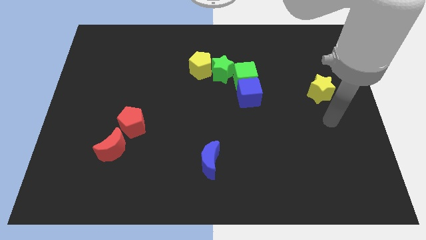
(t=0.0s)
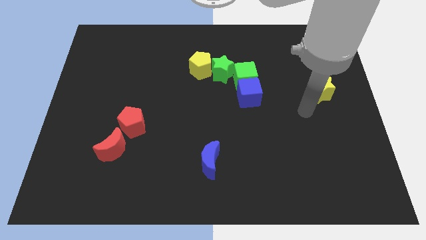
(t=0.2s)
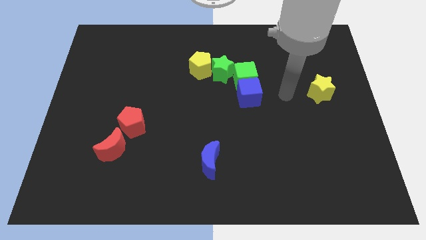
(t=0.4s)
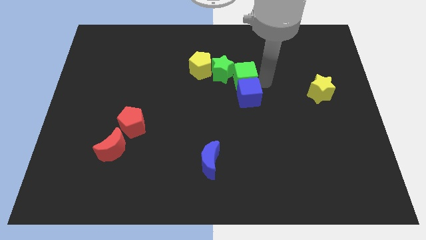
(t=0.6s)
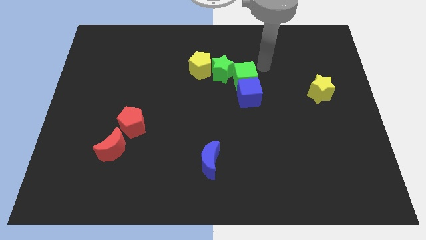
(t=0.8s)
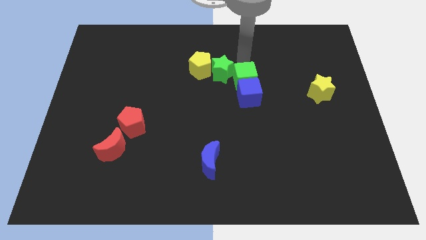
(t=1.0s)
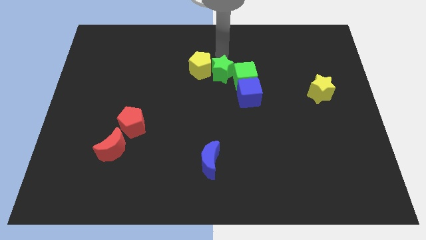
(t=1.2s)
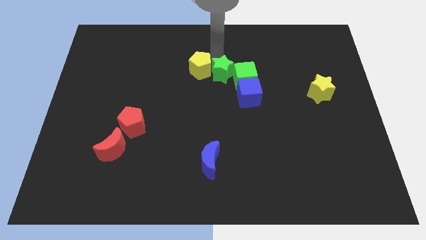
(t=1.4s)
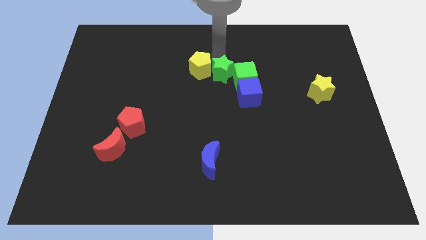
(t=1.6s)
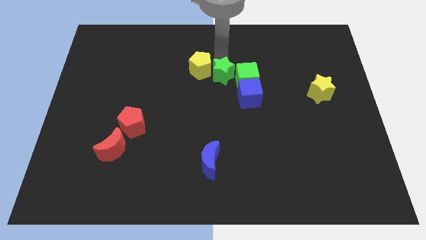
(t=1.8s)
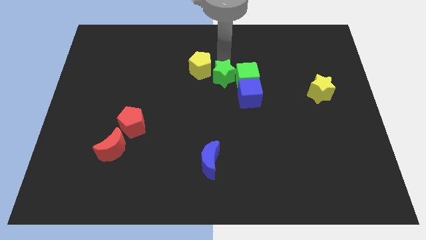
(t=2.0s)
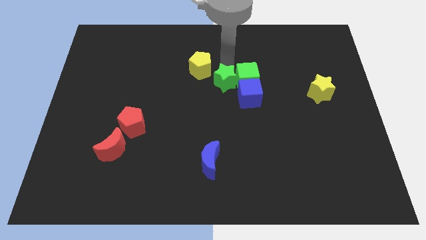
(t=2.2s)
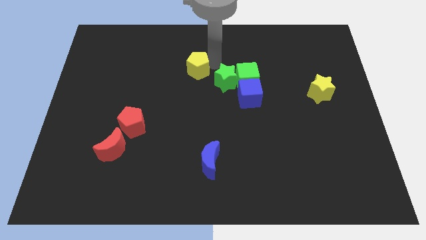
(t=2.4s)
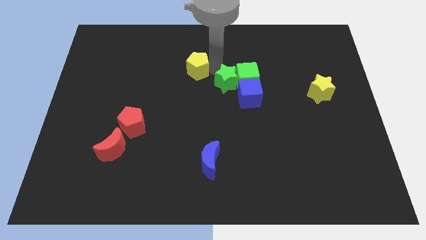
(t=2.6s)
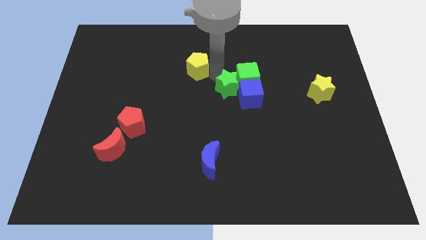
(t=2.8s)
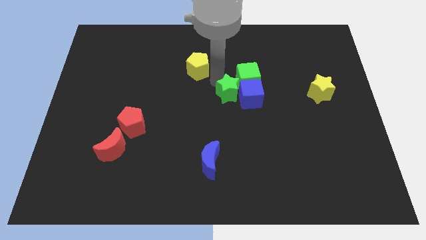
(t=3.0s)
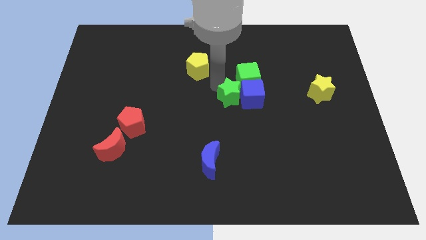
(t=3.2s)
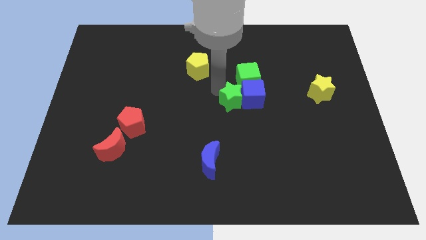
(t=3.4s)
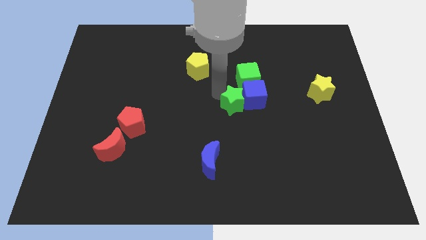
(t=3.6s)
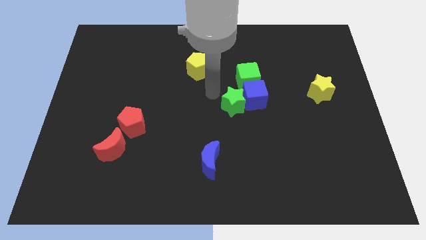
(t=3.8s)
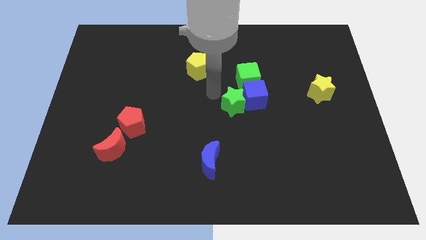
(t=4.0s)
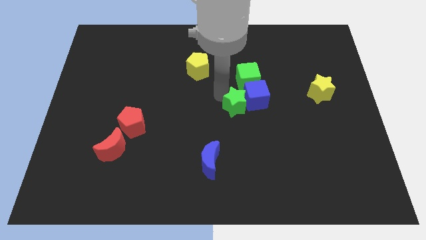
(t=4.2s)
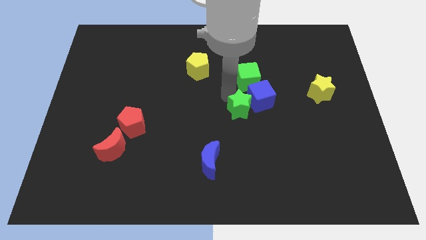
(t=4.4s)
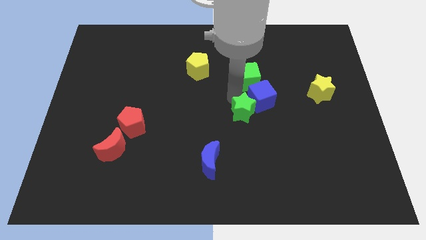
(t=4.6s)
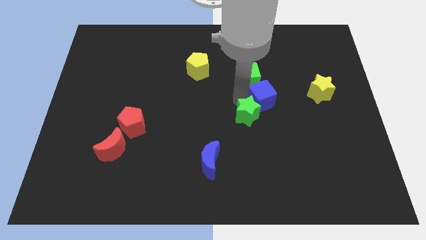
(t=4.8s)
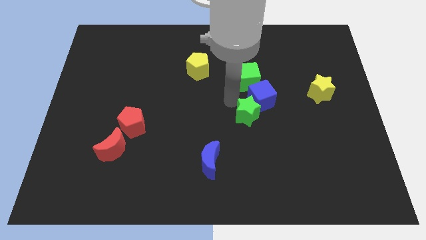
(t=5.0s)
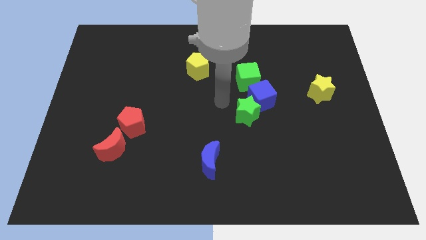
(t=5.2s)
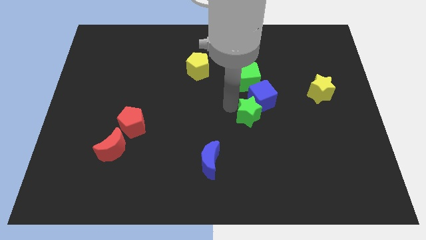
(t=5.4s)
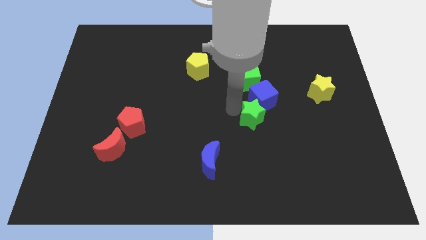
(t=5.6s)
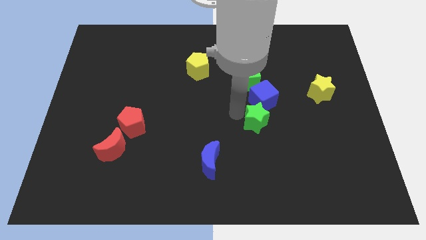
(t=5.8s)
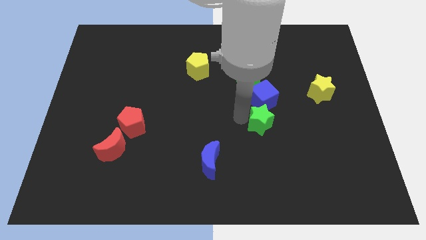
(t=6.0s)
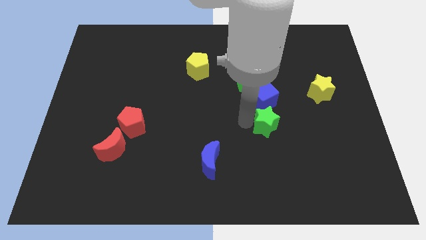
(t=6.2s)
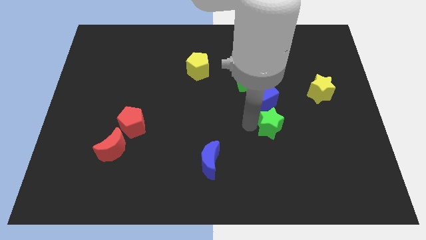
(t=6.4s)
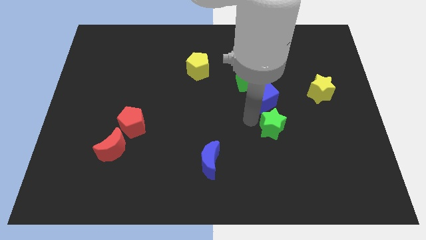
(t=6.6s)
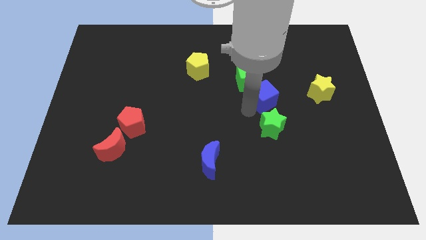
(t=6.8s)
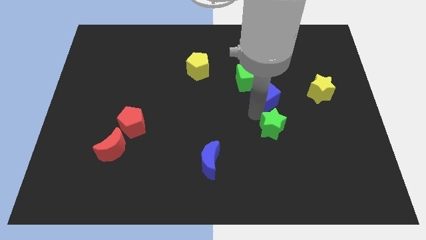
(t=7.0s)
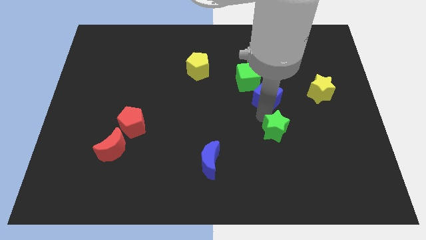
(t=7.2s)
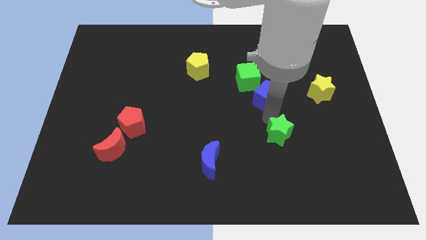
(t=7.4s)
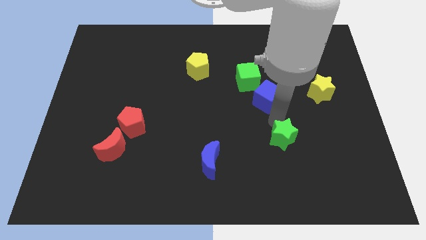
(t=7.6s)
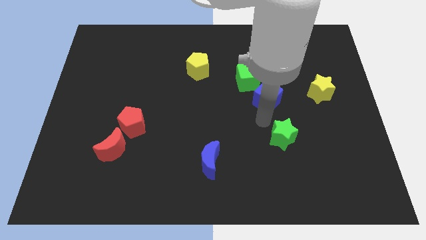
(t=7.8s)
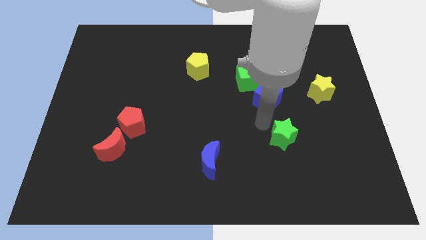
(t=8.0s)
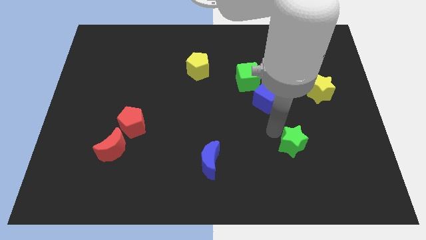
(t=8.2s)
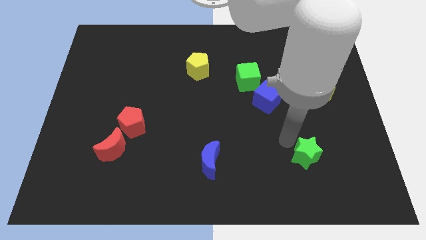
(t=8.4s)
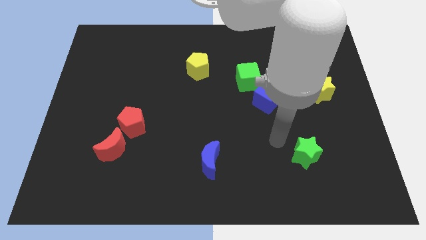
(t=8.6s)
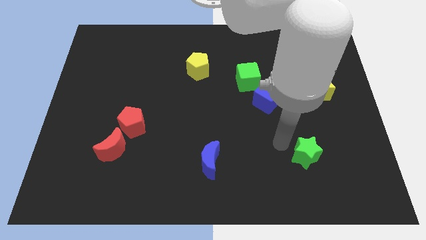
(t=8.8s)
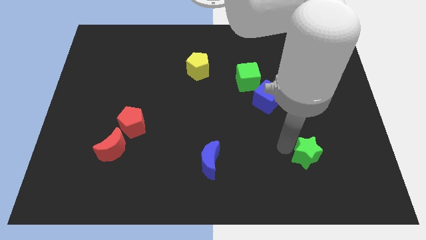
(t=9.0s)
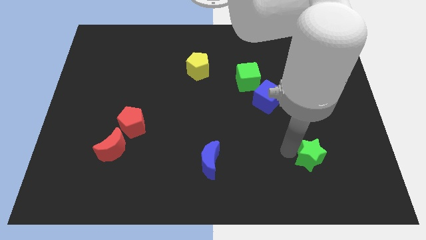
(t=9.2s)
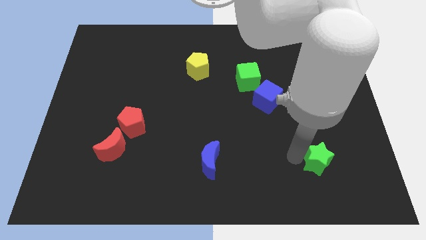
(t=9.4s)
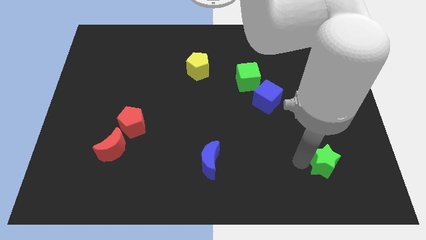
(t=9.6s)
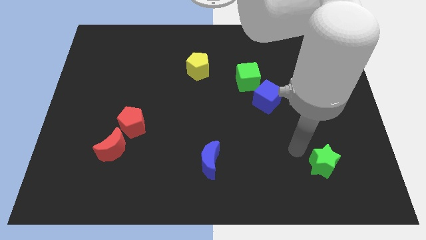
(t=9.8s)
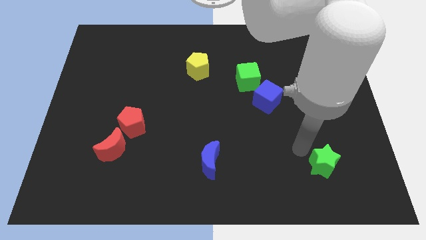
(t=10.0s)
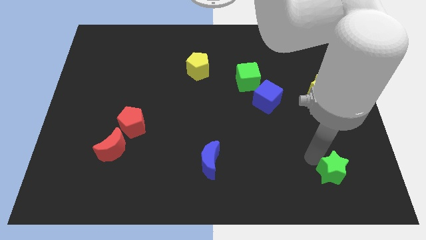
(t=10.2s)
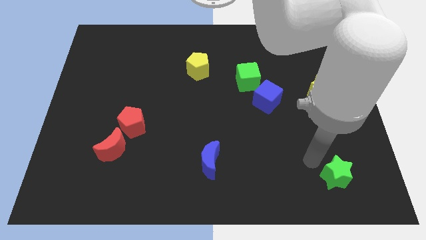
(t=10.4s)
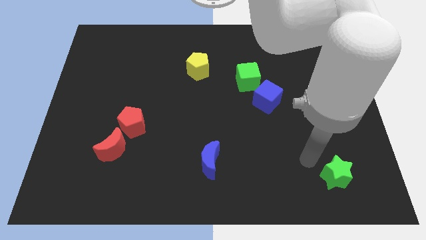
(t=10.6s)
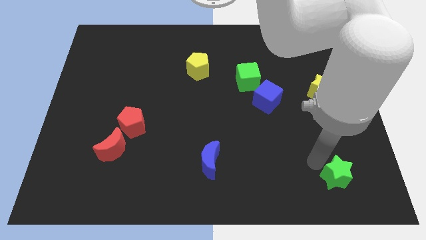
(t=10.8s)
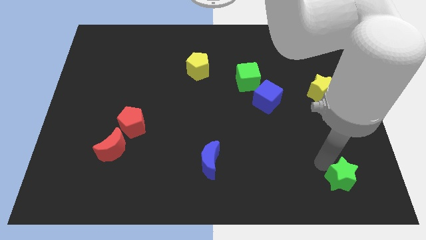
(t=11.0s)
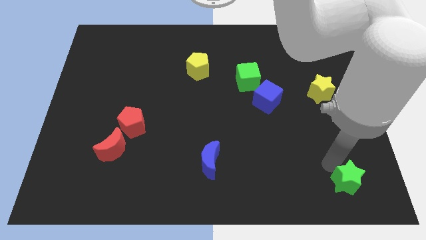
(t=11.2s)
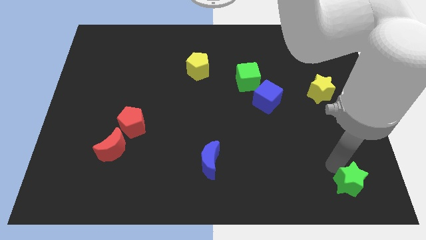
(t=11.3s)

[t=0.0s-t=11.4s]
push the green star to the lower right corner

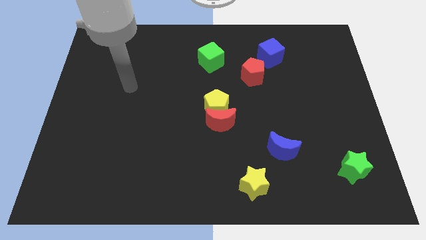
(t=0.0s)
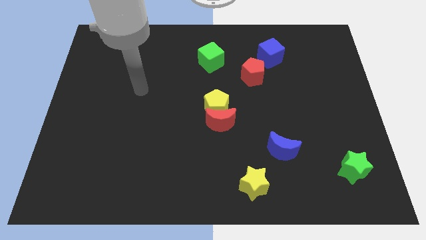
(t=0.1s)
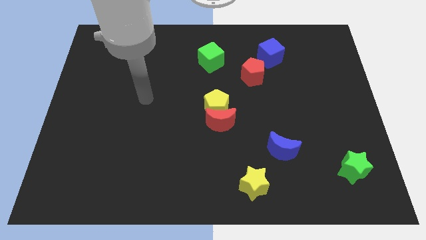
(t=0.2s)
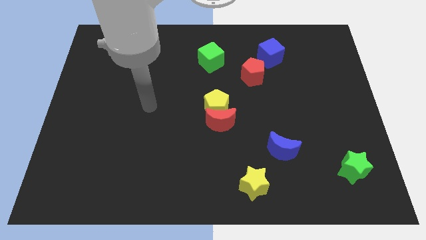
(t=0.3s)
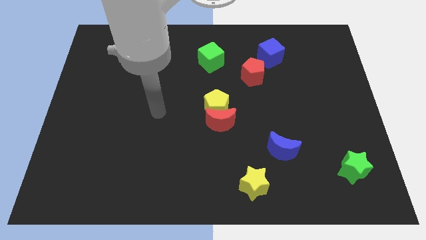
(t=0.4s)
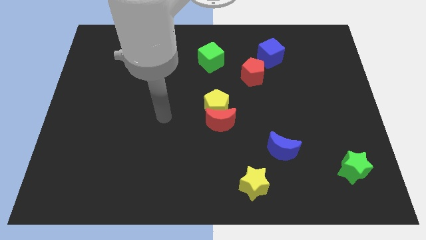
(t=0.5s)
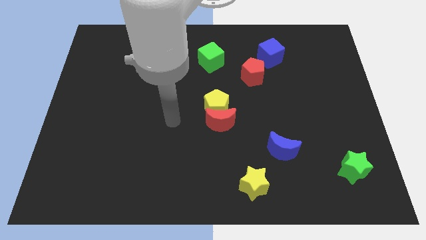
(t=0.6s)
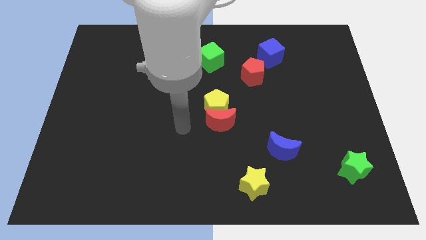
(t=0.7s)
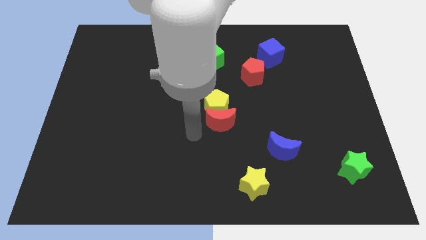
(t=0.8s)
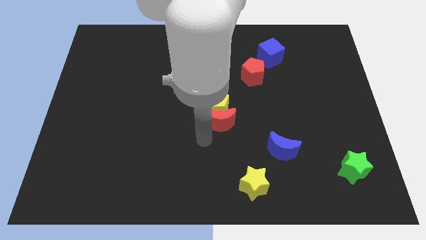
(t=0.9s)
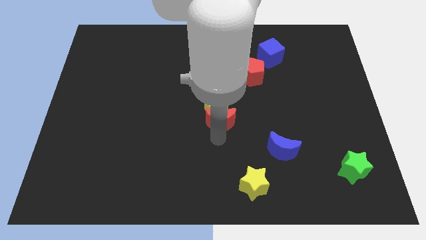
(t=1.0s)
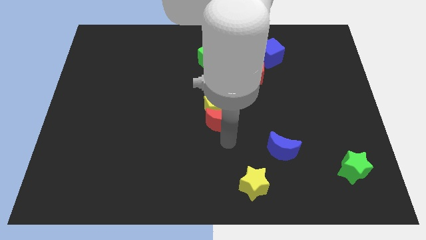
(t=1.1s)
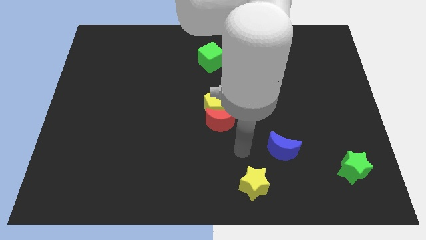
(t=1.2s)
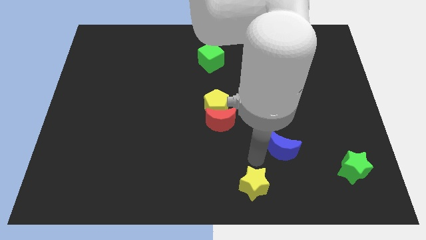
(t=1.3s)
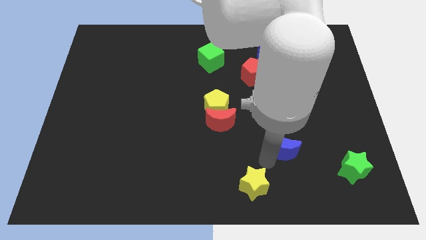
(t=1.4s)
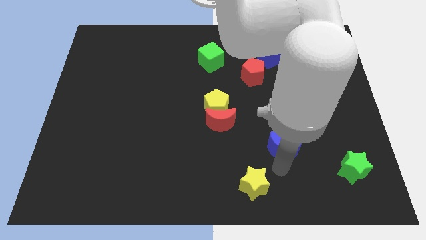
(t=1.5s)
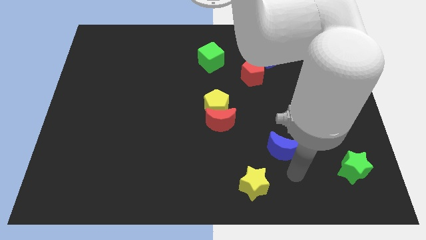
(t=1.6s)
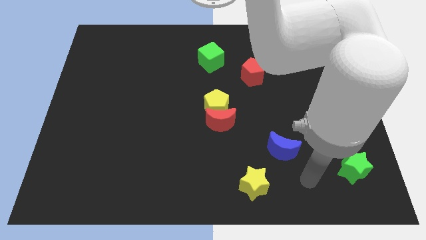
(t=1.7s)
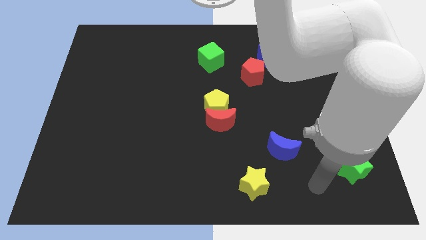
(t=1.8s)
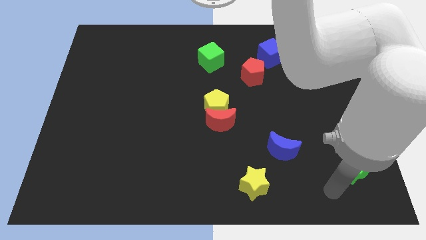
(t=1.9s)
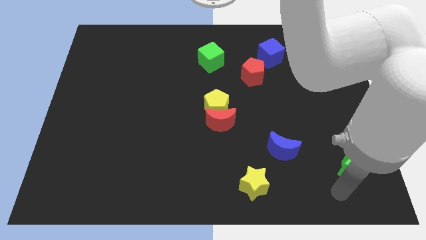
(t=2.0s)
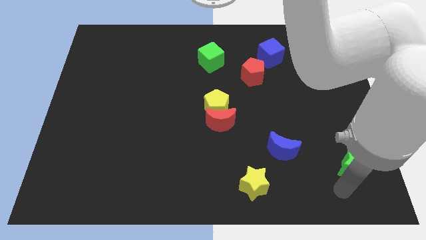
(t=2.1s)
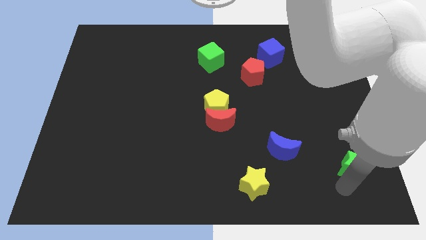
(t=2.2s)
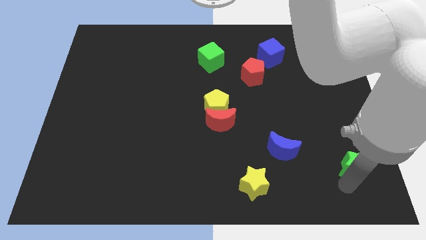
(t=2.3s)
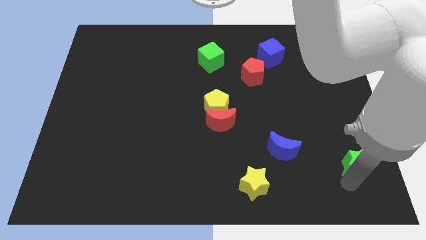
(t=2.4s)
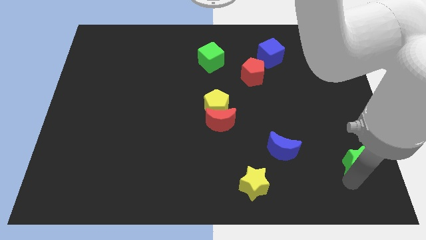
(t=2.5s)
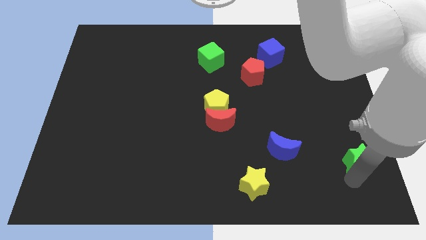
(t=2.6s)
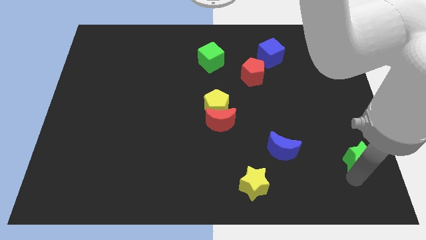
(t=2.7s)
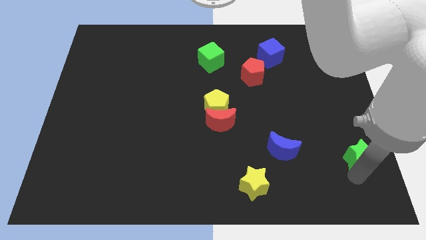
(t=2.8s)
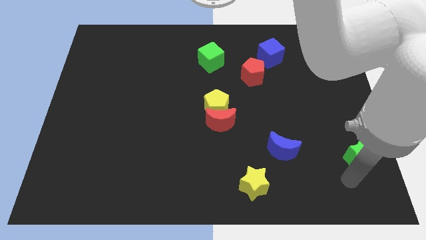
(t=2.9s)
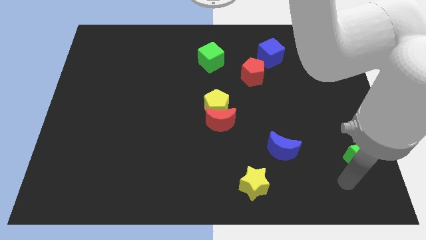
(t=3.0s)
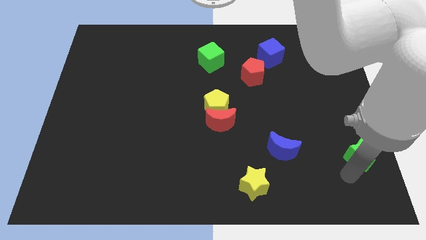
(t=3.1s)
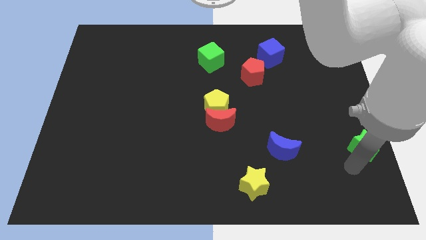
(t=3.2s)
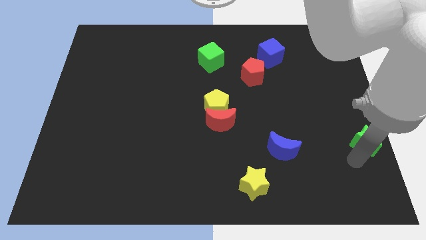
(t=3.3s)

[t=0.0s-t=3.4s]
push the green star to the right side
